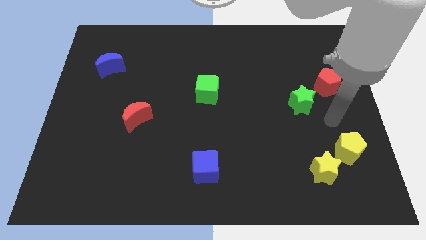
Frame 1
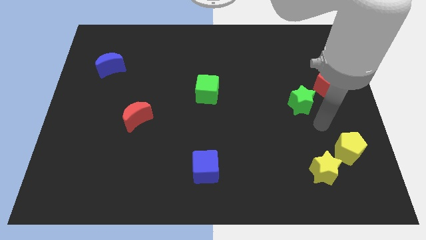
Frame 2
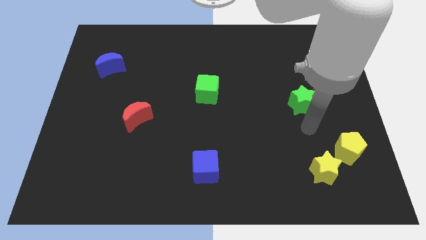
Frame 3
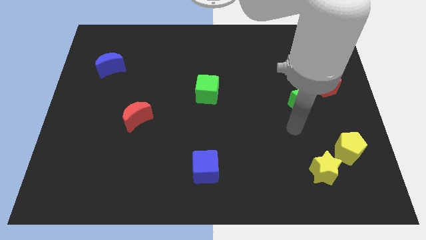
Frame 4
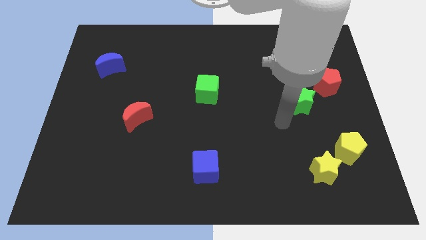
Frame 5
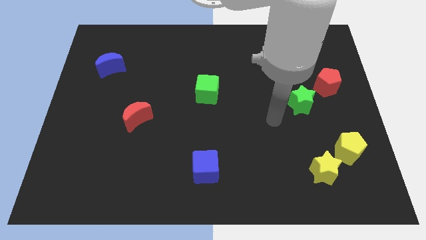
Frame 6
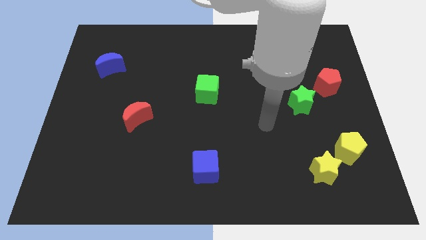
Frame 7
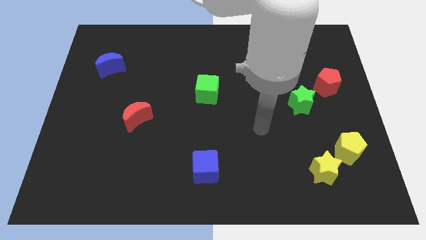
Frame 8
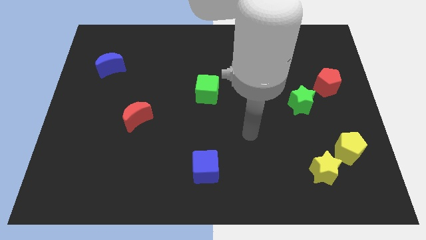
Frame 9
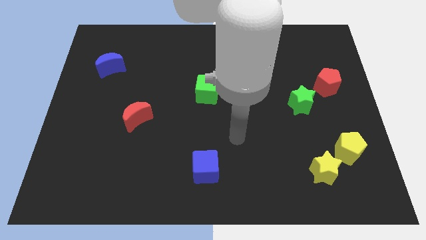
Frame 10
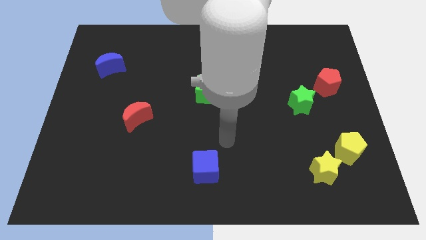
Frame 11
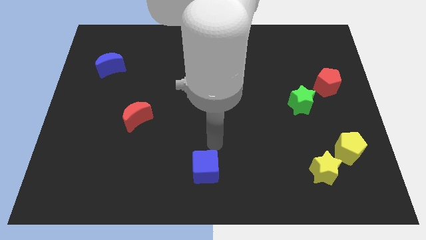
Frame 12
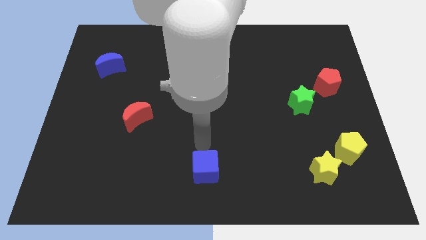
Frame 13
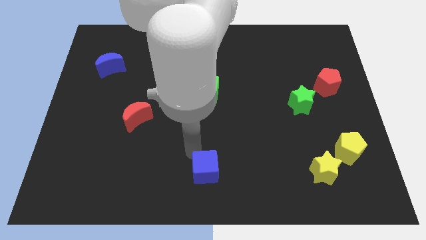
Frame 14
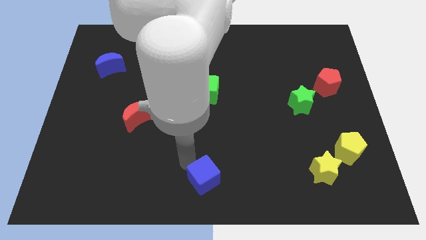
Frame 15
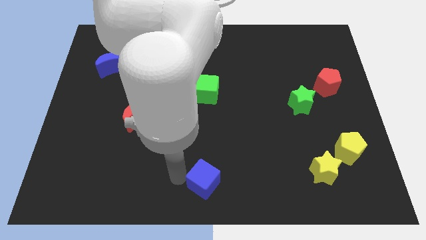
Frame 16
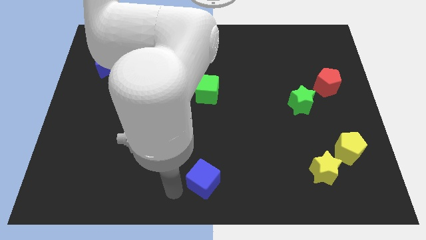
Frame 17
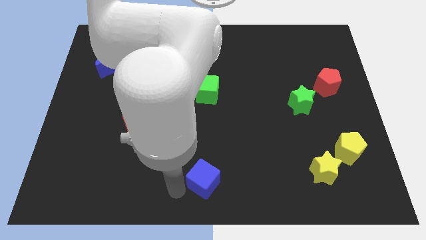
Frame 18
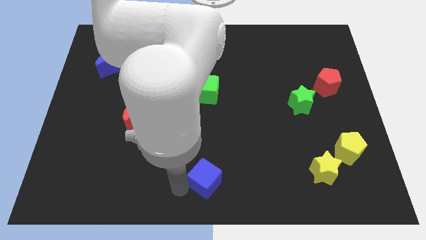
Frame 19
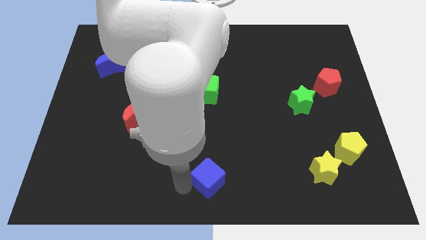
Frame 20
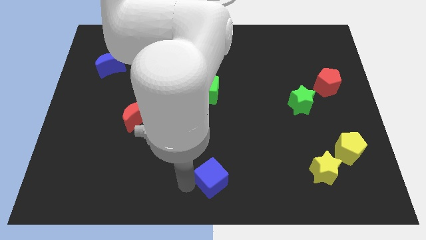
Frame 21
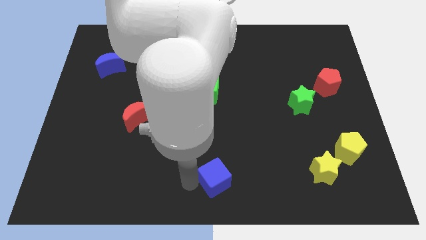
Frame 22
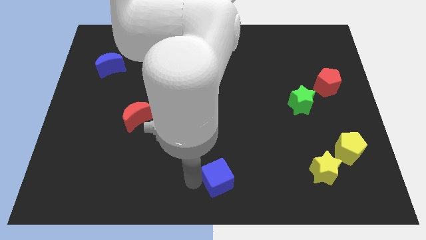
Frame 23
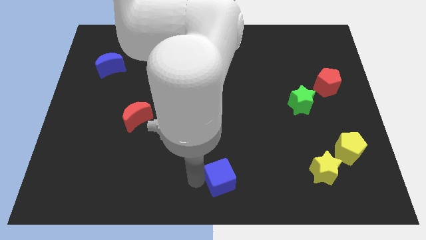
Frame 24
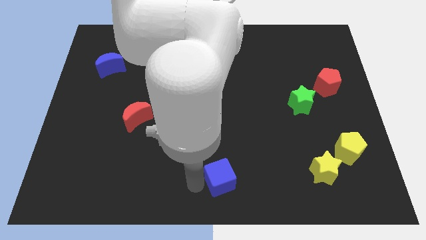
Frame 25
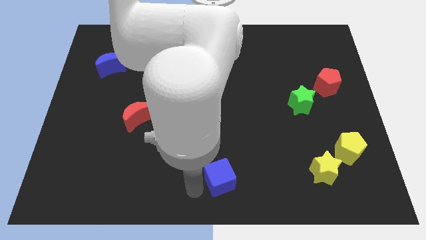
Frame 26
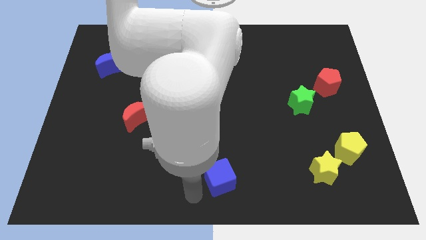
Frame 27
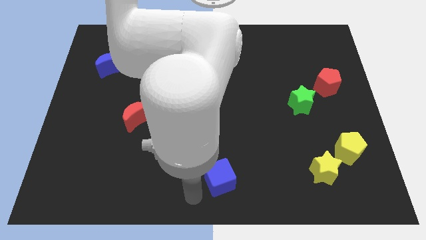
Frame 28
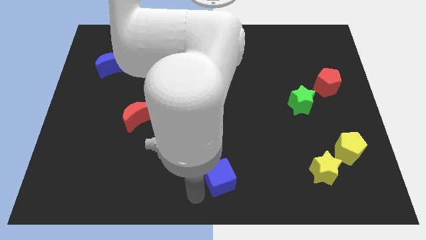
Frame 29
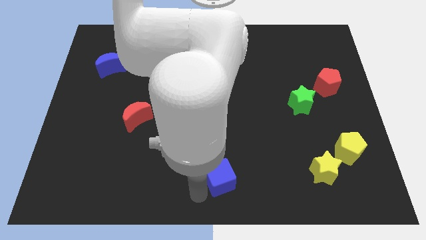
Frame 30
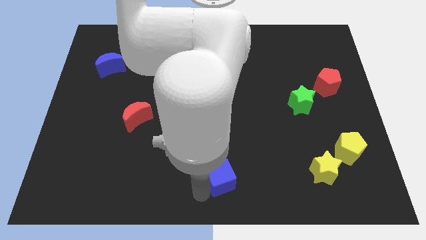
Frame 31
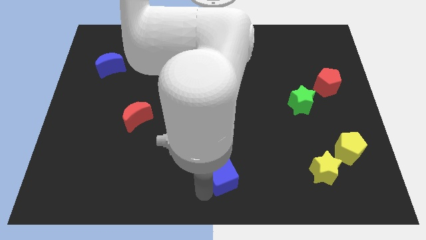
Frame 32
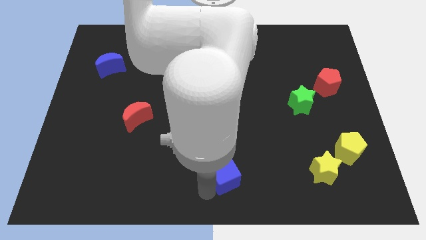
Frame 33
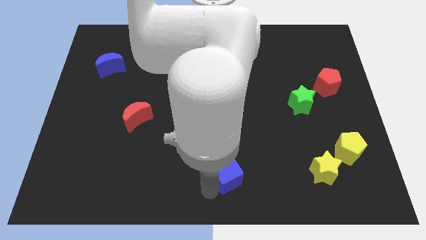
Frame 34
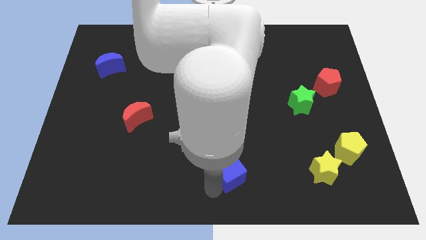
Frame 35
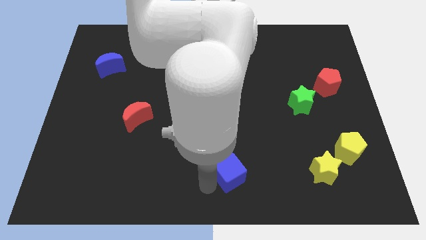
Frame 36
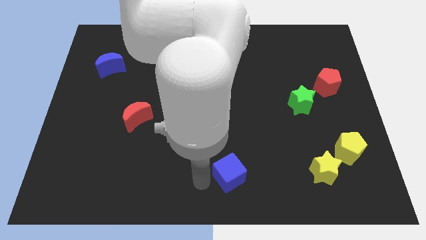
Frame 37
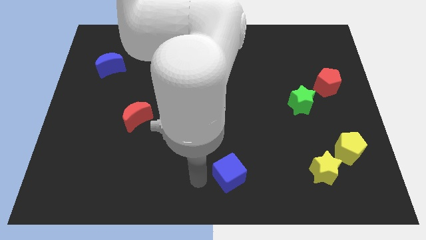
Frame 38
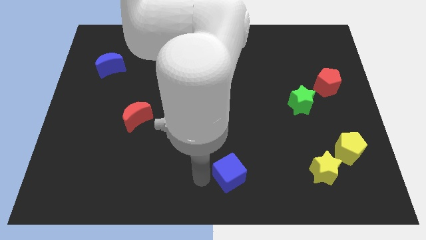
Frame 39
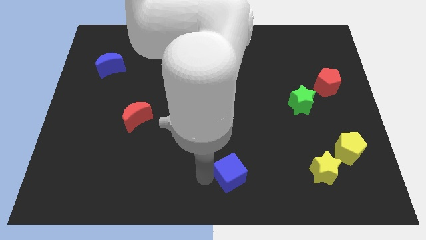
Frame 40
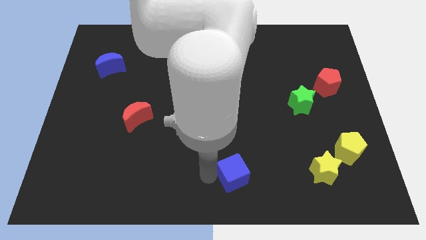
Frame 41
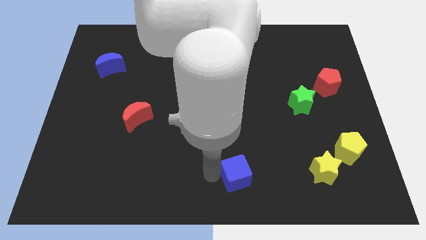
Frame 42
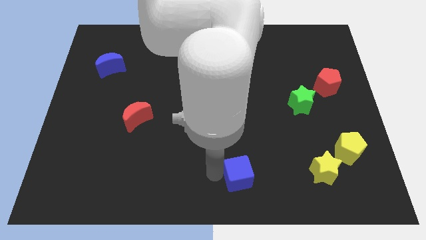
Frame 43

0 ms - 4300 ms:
slightly push the blue cube right

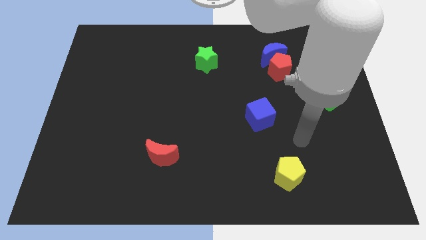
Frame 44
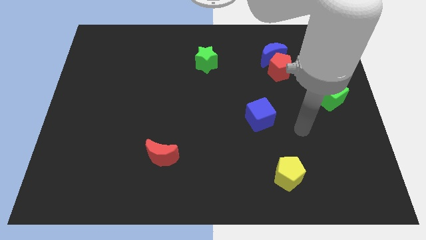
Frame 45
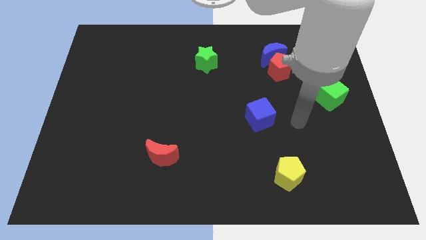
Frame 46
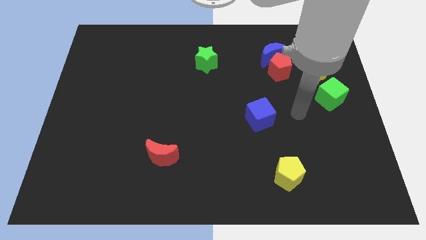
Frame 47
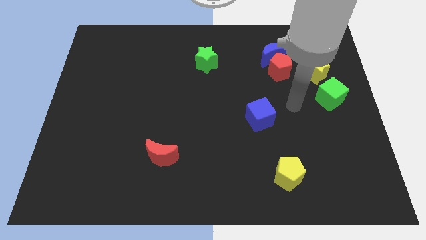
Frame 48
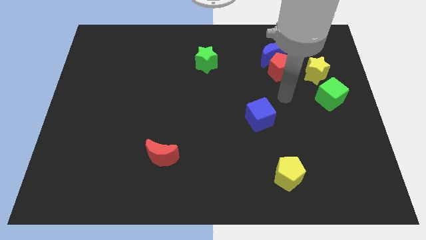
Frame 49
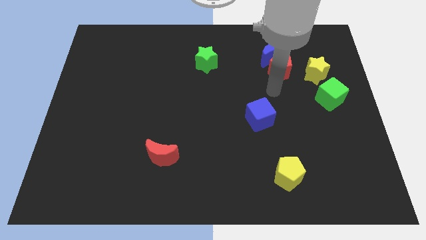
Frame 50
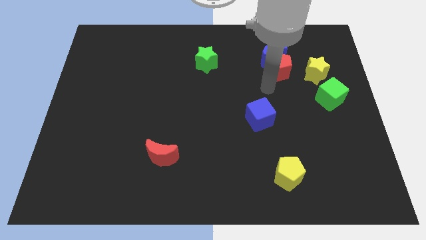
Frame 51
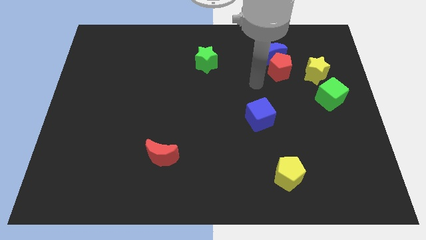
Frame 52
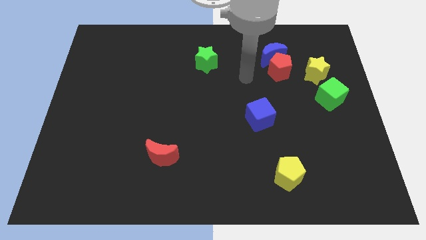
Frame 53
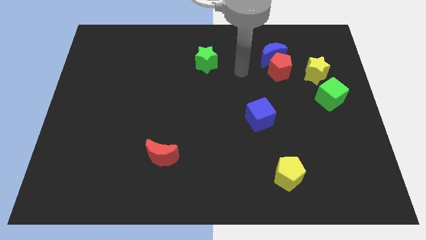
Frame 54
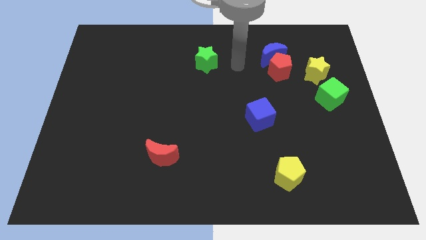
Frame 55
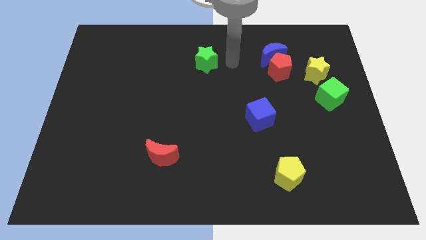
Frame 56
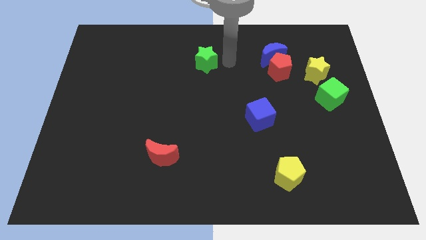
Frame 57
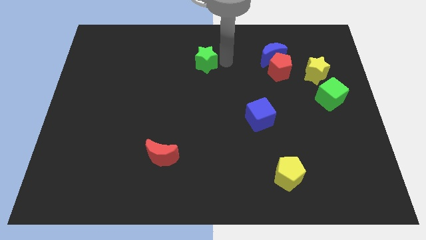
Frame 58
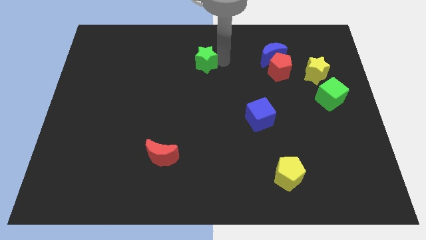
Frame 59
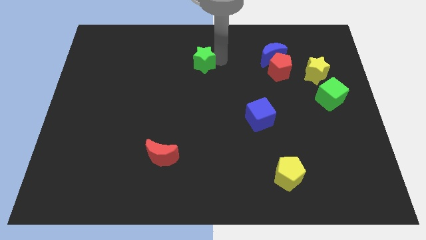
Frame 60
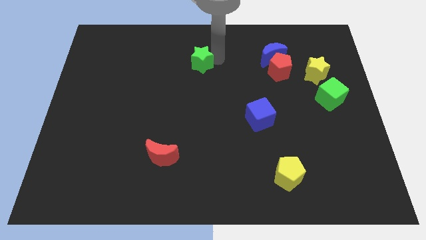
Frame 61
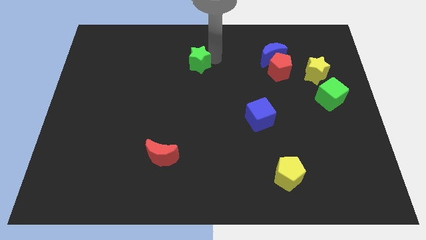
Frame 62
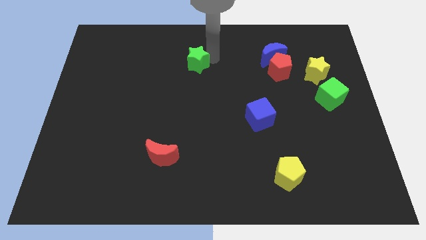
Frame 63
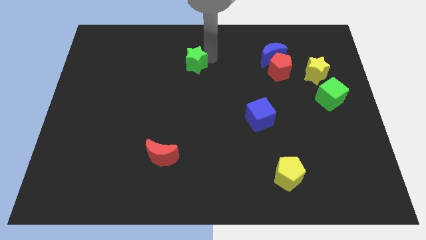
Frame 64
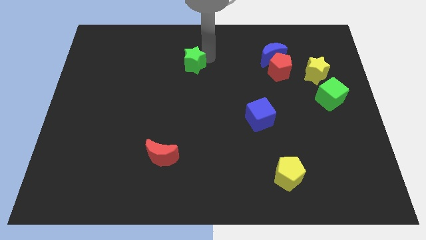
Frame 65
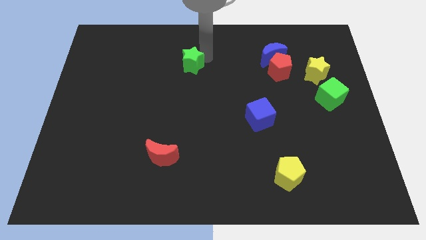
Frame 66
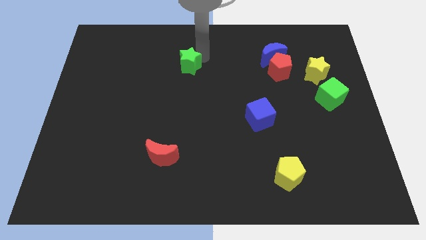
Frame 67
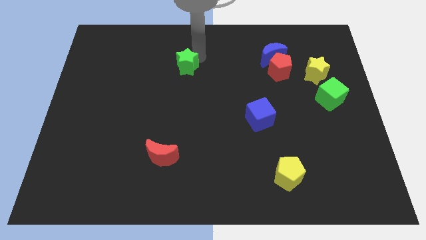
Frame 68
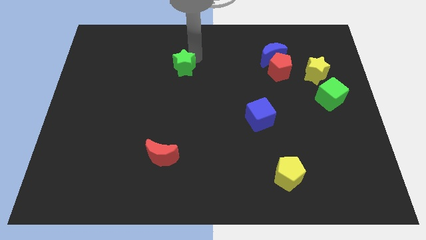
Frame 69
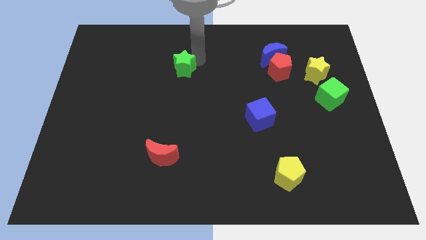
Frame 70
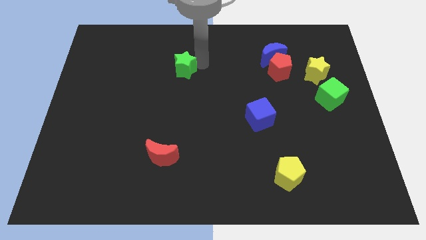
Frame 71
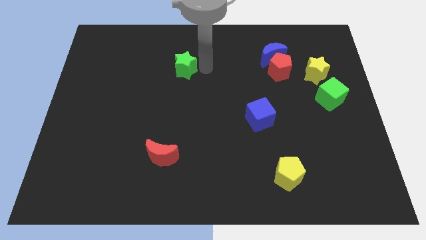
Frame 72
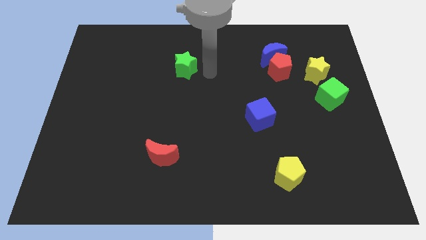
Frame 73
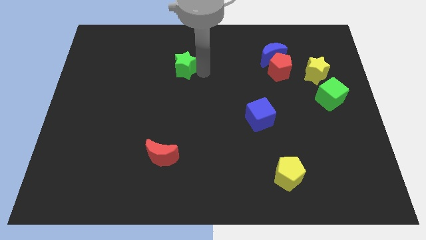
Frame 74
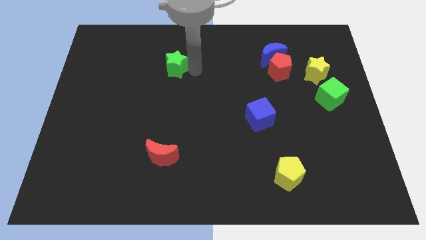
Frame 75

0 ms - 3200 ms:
slide the green star to the left somewhat

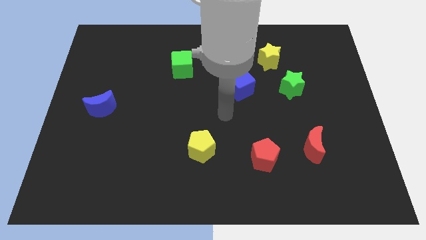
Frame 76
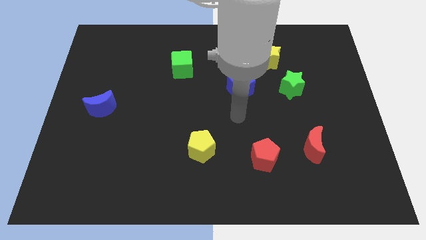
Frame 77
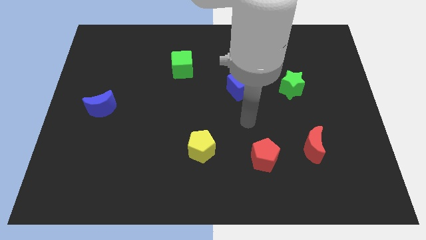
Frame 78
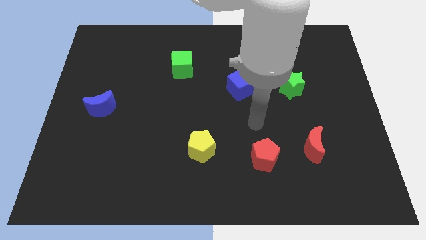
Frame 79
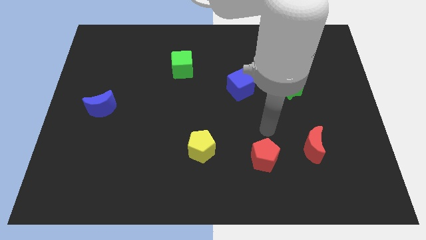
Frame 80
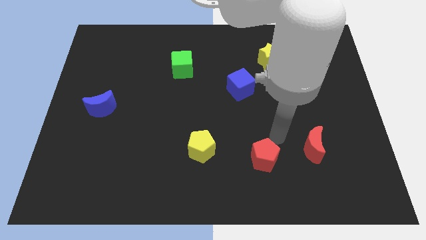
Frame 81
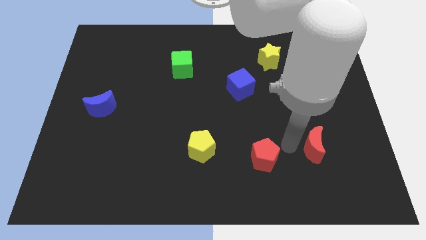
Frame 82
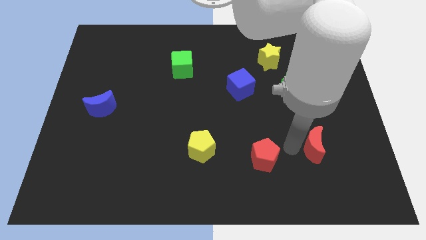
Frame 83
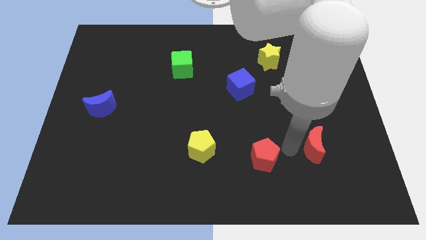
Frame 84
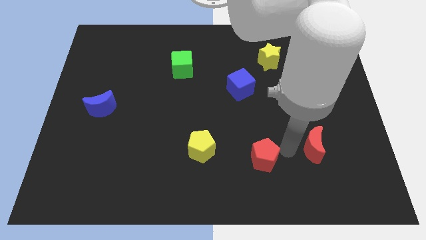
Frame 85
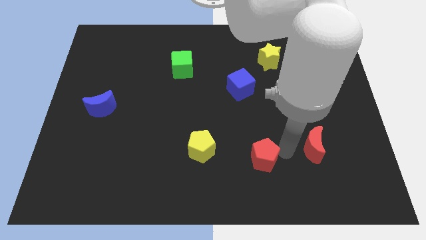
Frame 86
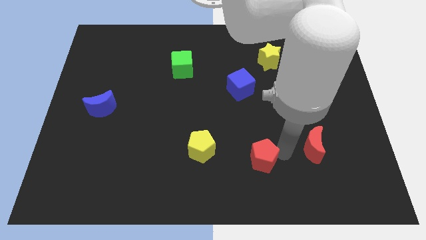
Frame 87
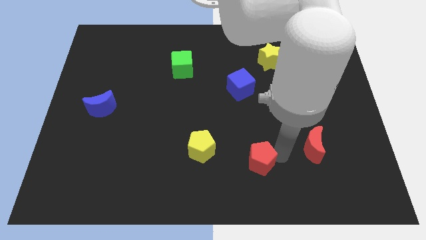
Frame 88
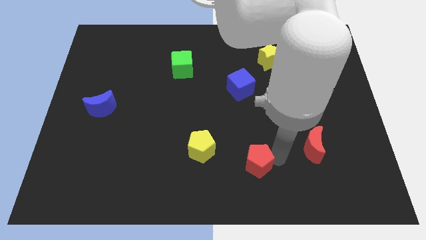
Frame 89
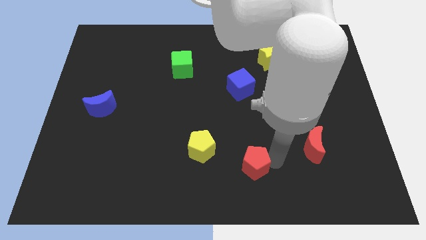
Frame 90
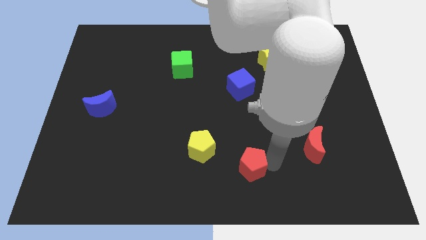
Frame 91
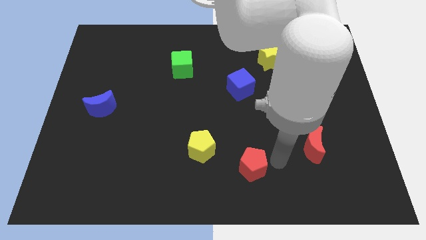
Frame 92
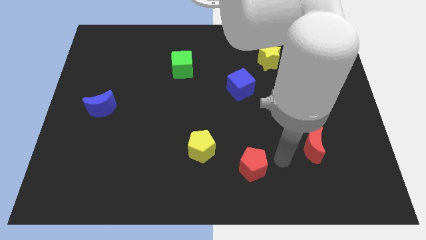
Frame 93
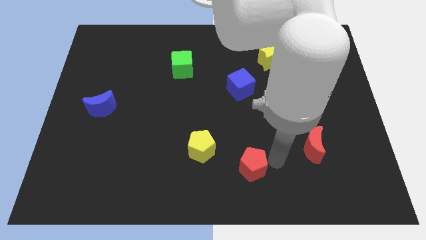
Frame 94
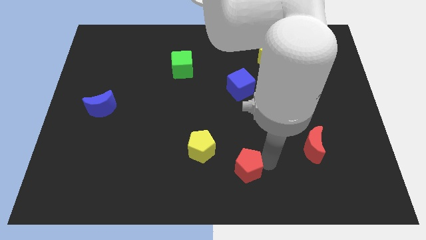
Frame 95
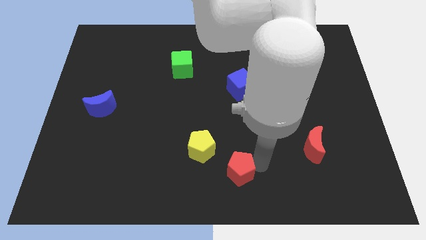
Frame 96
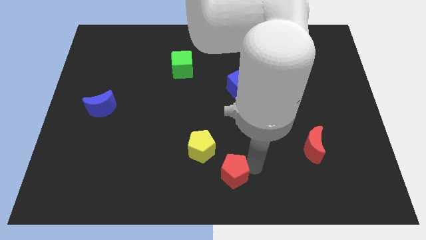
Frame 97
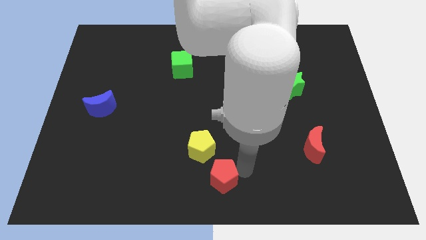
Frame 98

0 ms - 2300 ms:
push the red pentagon a little to the left
